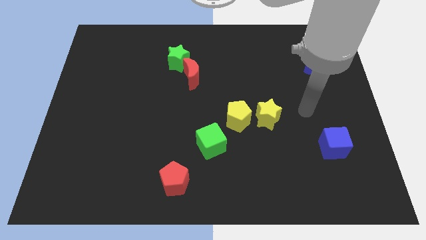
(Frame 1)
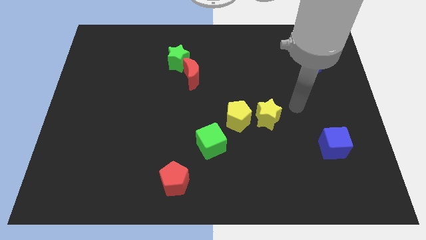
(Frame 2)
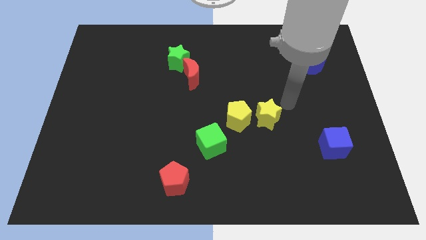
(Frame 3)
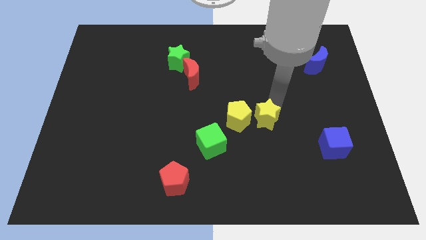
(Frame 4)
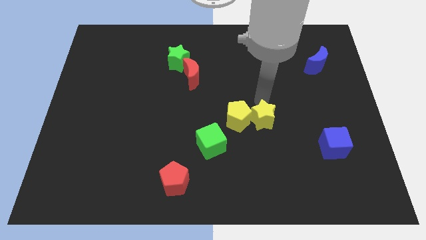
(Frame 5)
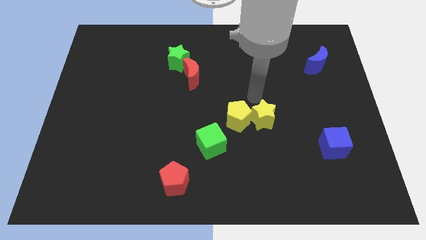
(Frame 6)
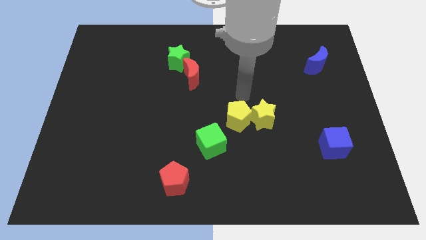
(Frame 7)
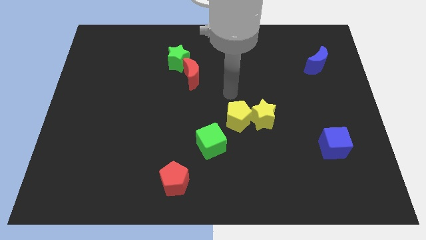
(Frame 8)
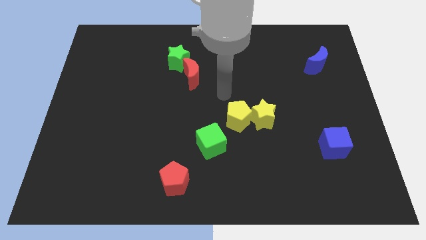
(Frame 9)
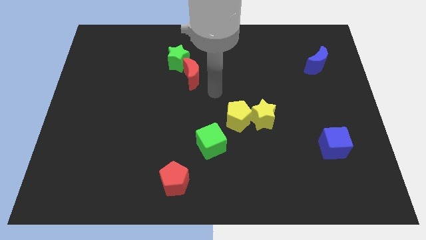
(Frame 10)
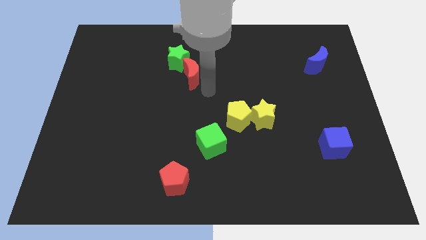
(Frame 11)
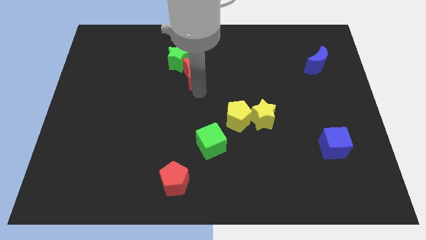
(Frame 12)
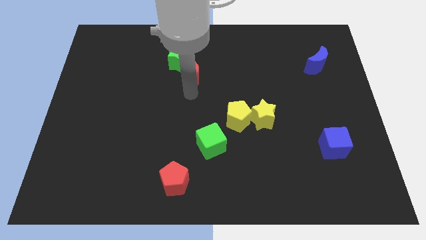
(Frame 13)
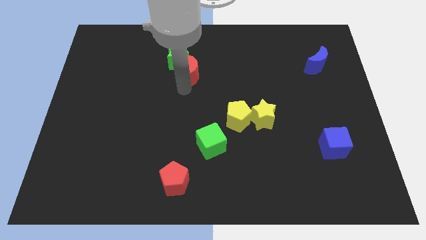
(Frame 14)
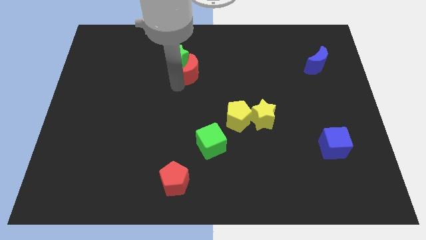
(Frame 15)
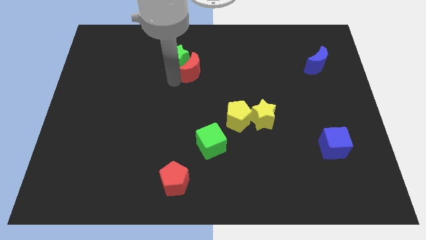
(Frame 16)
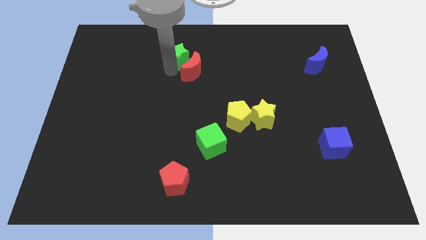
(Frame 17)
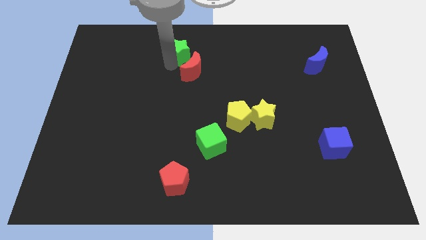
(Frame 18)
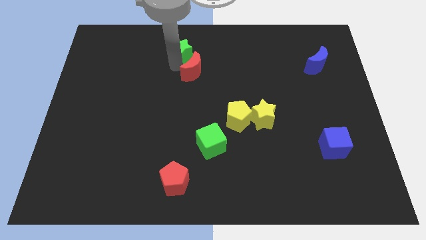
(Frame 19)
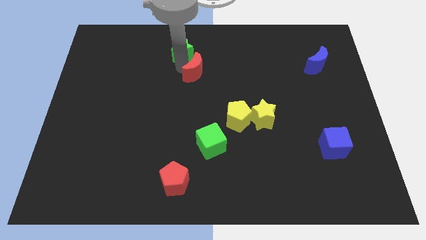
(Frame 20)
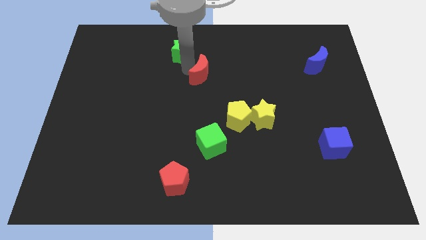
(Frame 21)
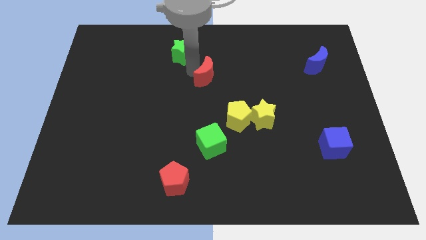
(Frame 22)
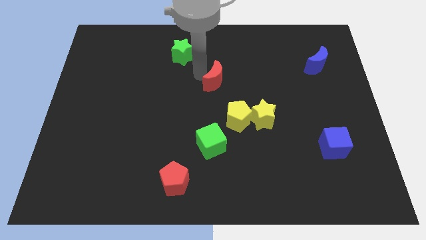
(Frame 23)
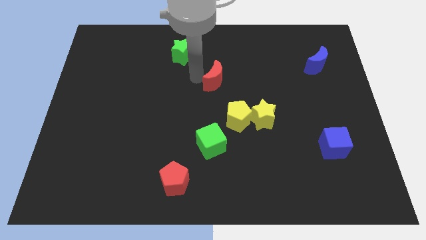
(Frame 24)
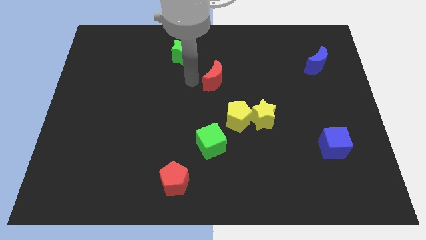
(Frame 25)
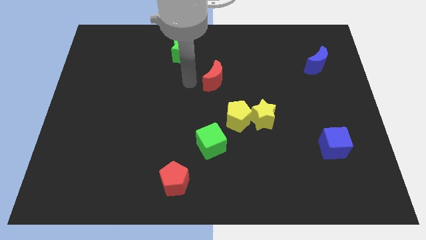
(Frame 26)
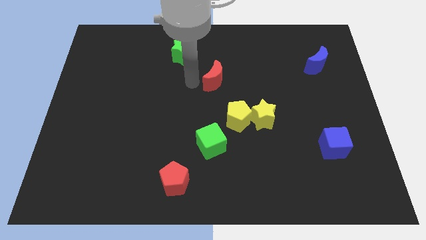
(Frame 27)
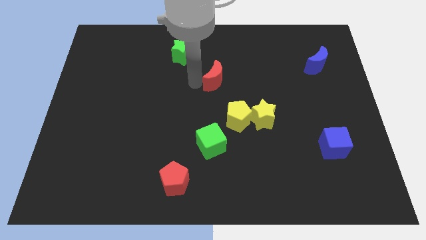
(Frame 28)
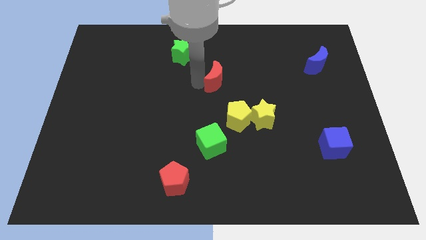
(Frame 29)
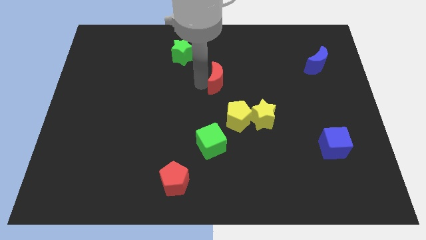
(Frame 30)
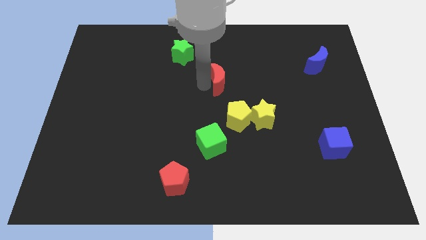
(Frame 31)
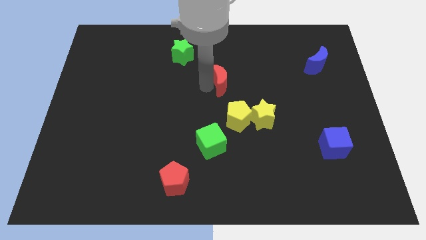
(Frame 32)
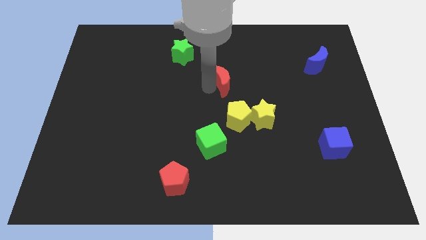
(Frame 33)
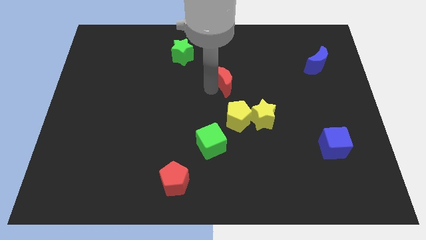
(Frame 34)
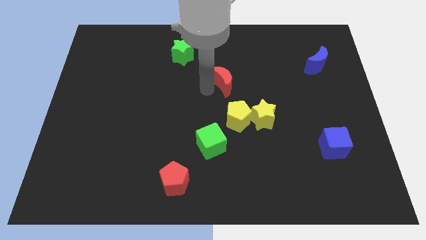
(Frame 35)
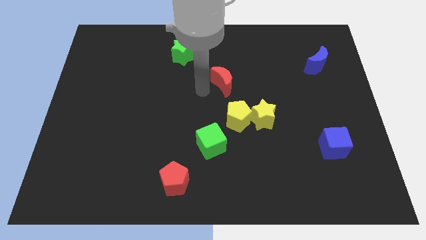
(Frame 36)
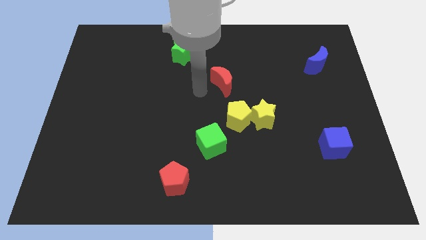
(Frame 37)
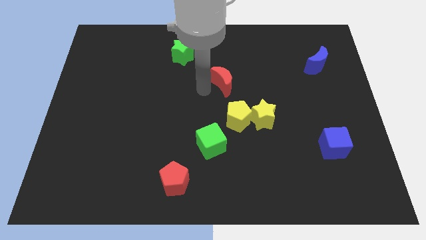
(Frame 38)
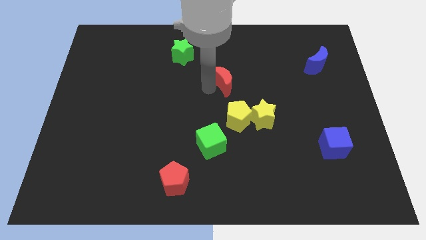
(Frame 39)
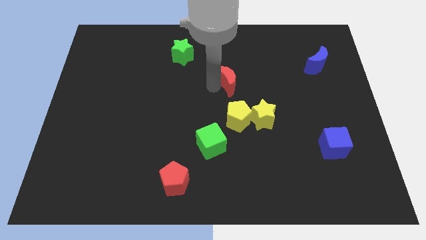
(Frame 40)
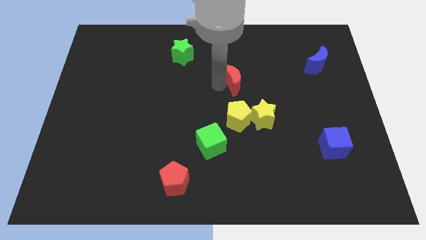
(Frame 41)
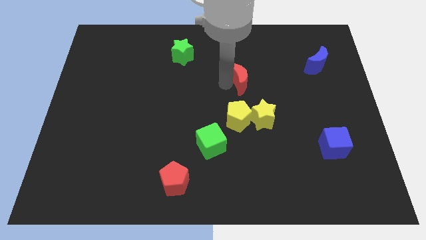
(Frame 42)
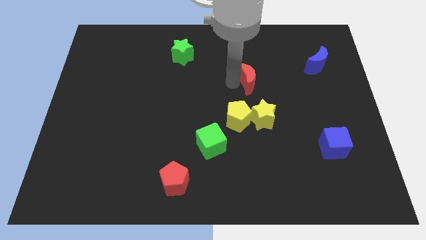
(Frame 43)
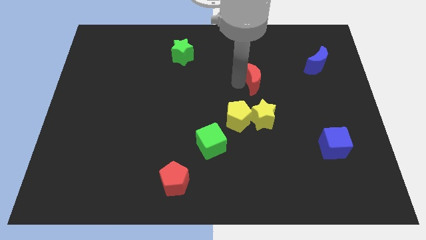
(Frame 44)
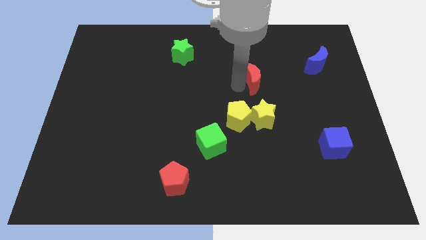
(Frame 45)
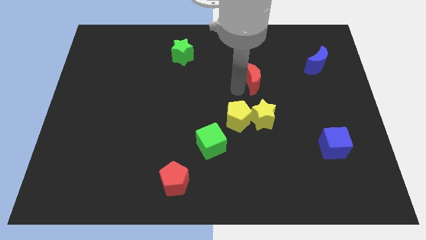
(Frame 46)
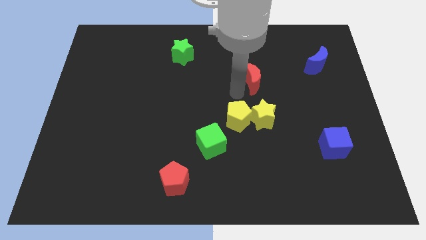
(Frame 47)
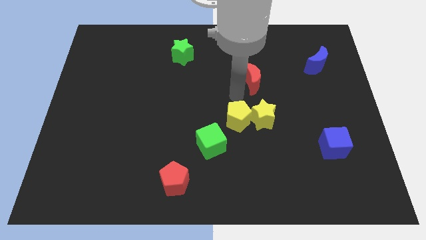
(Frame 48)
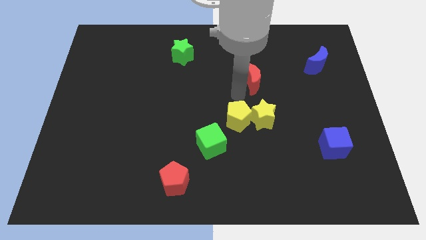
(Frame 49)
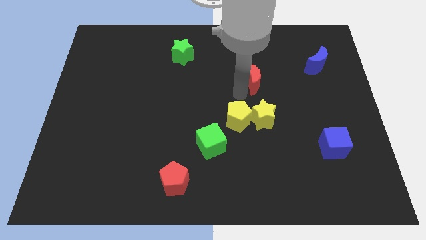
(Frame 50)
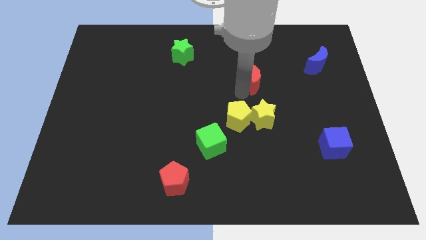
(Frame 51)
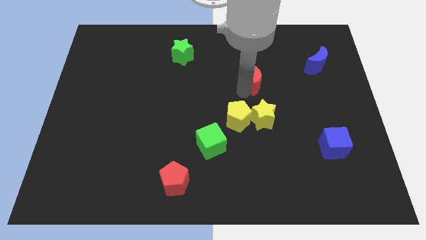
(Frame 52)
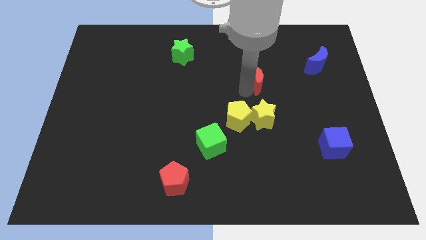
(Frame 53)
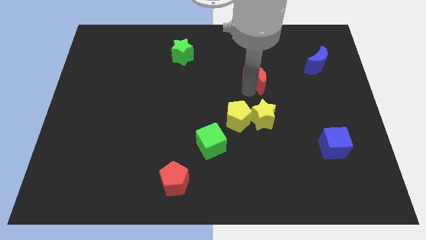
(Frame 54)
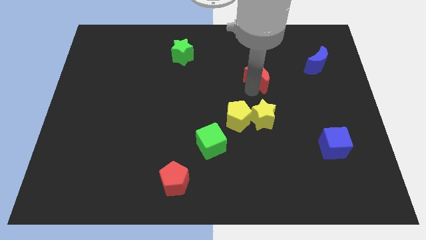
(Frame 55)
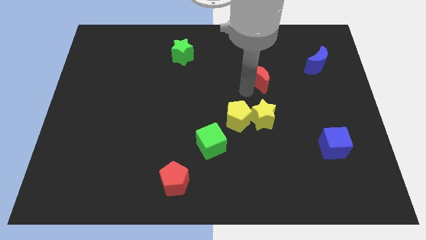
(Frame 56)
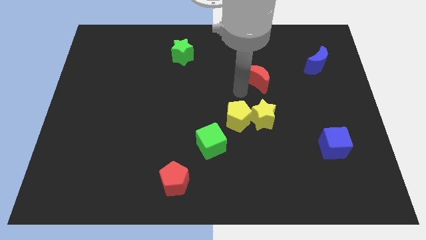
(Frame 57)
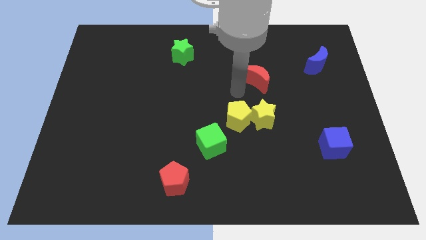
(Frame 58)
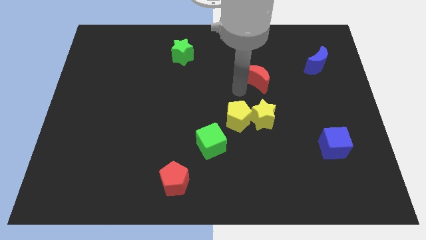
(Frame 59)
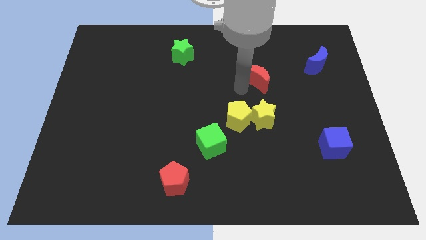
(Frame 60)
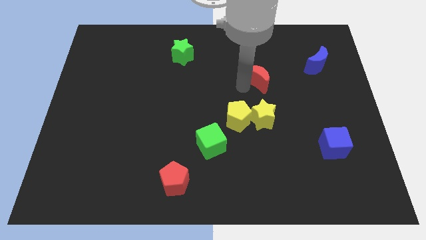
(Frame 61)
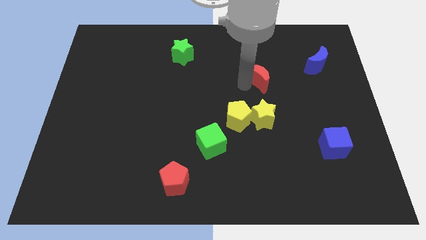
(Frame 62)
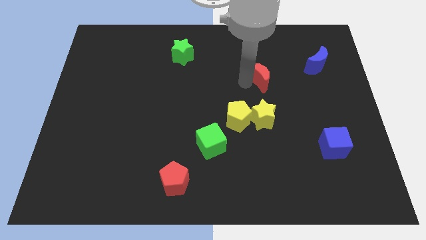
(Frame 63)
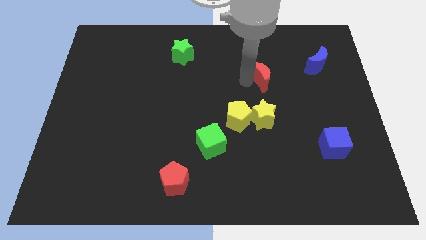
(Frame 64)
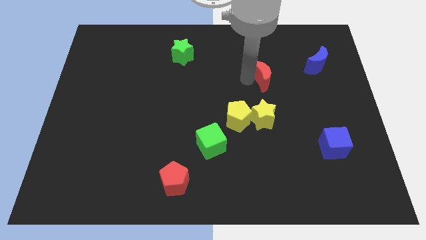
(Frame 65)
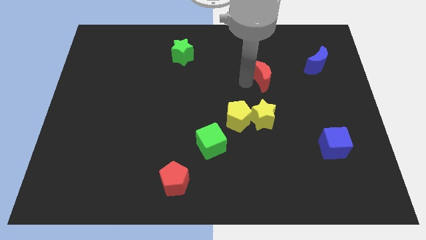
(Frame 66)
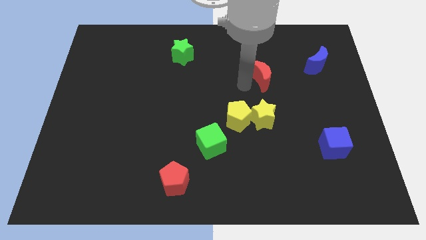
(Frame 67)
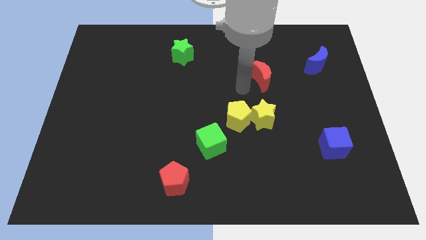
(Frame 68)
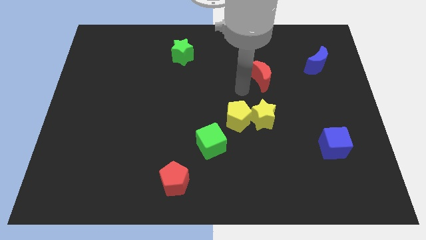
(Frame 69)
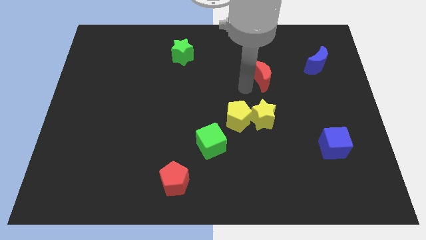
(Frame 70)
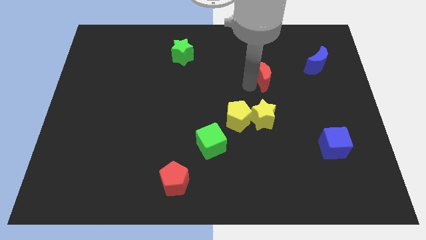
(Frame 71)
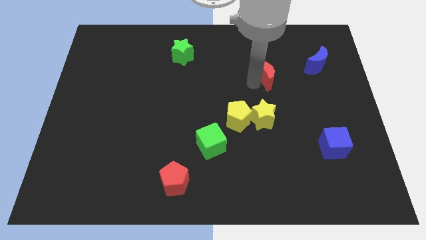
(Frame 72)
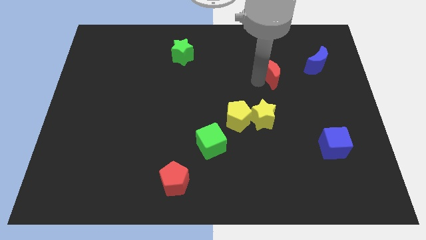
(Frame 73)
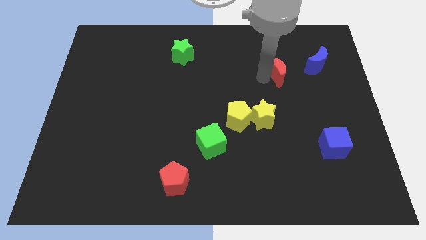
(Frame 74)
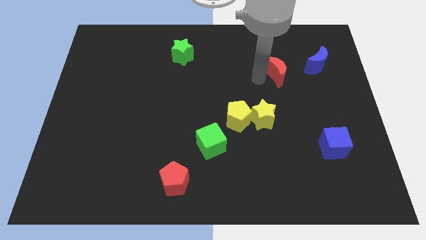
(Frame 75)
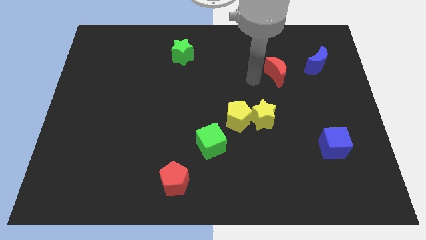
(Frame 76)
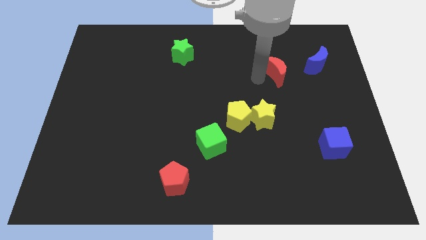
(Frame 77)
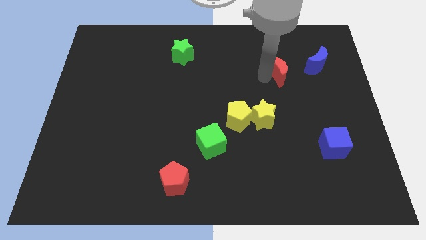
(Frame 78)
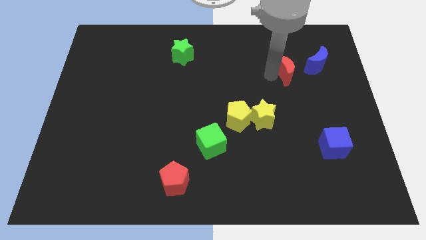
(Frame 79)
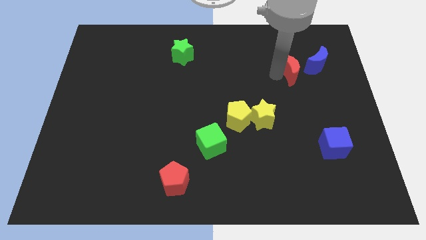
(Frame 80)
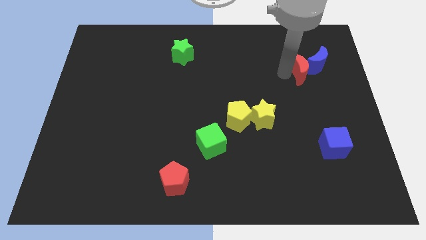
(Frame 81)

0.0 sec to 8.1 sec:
move the red moon towards the blue moon

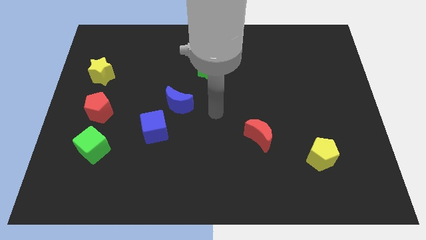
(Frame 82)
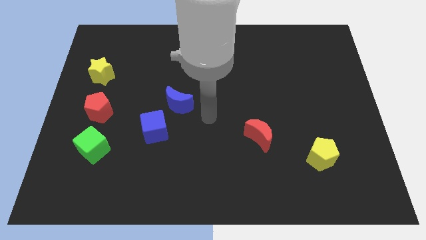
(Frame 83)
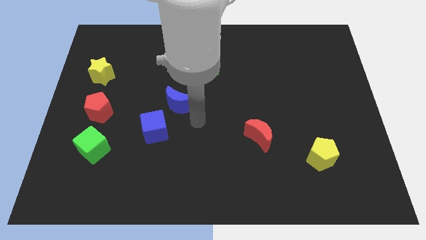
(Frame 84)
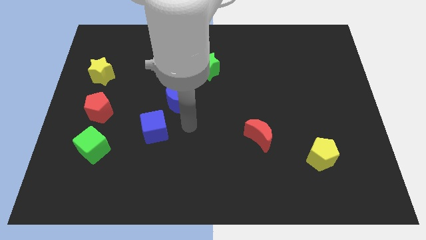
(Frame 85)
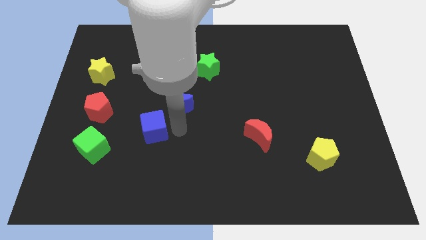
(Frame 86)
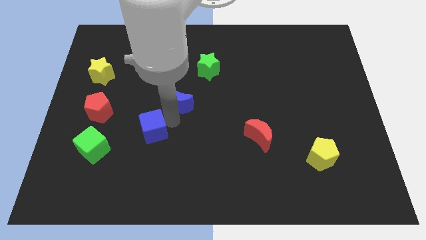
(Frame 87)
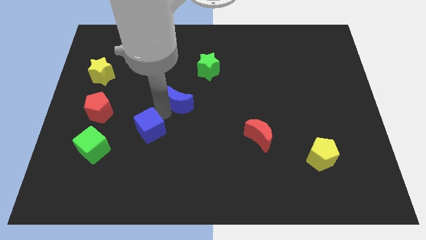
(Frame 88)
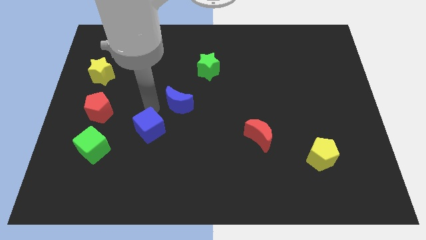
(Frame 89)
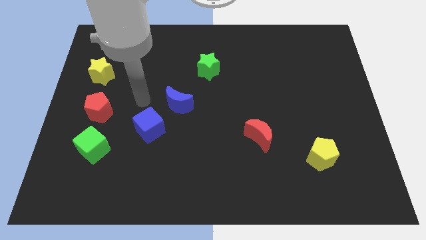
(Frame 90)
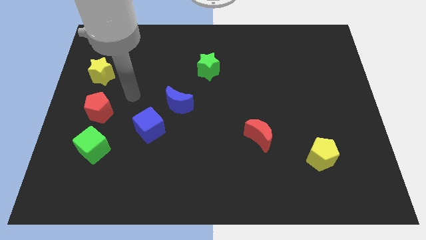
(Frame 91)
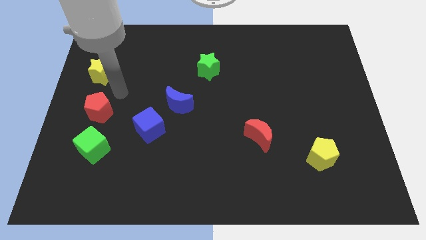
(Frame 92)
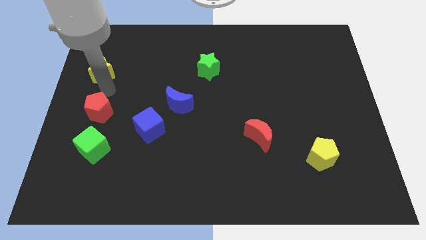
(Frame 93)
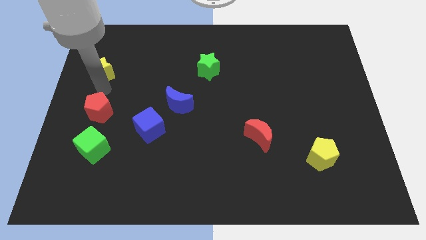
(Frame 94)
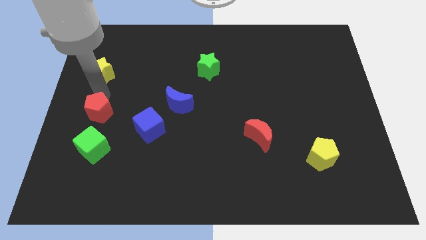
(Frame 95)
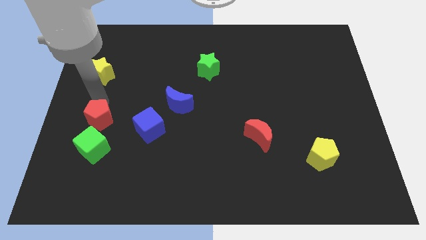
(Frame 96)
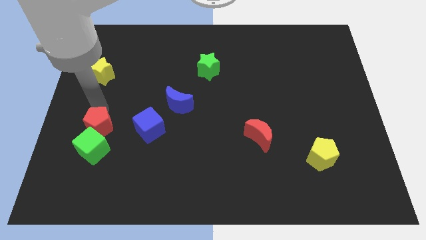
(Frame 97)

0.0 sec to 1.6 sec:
put the red pentagon to the green cube
